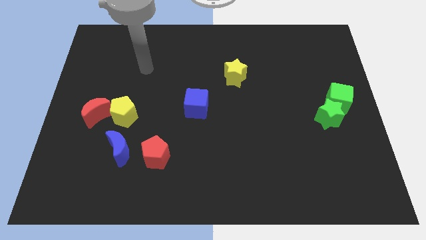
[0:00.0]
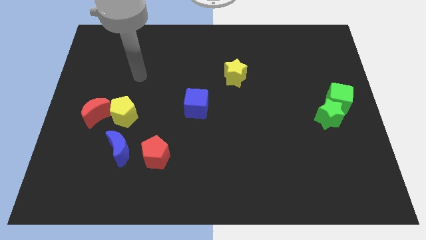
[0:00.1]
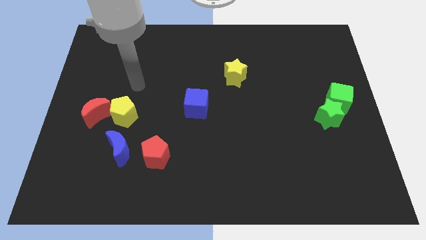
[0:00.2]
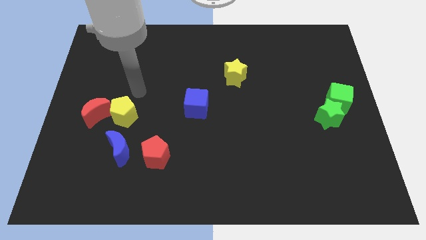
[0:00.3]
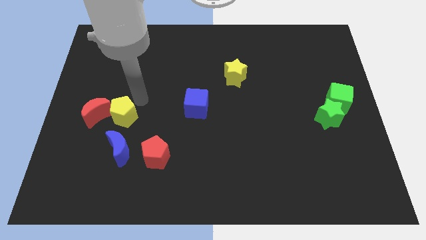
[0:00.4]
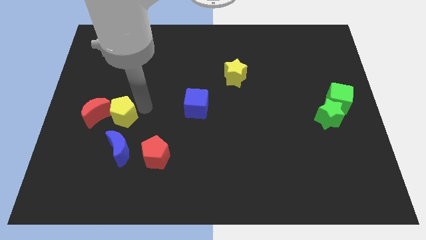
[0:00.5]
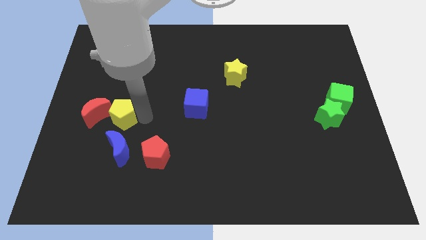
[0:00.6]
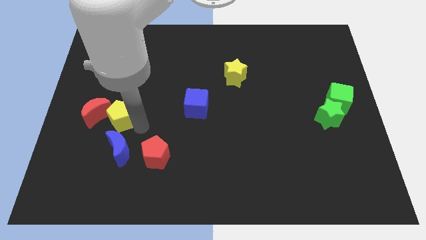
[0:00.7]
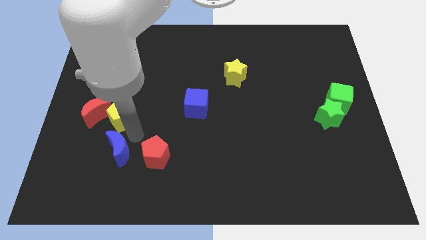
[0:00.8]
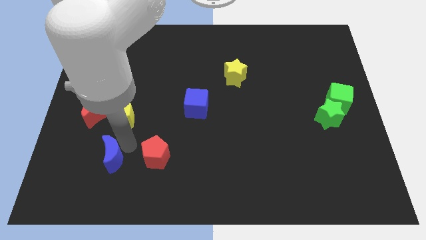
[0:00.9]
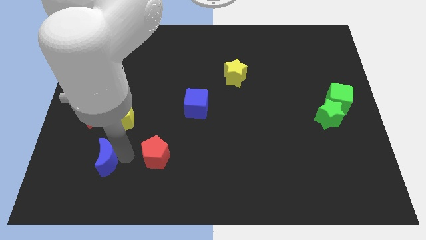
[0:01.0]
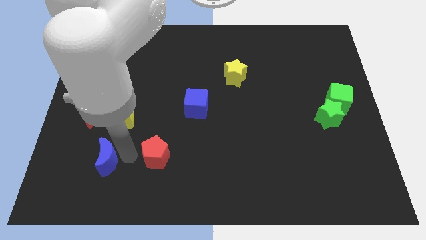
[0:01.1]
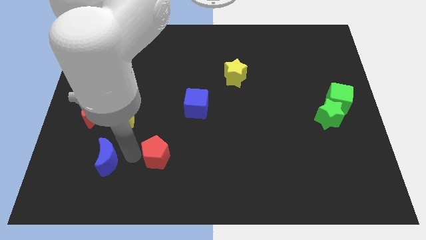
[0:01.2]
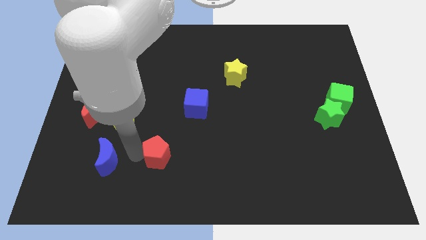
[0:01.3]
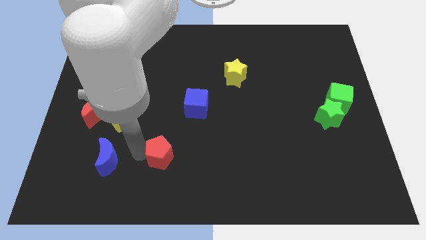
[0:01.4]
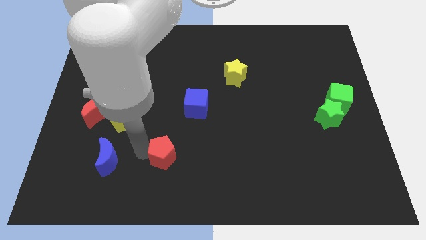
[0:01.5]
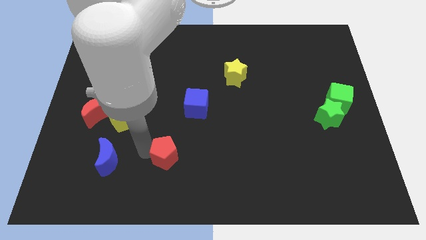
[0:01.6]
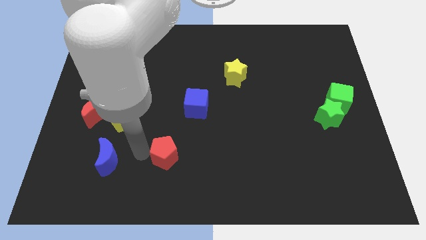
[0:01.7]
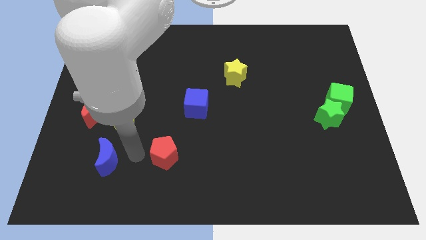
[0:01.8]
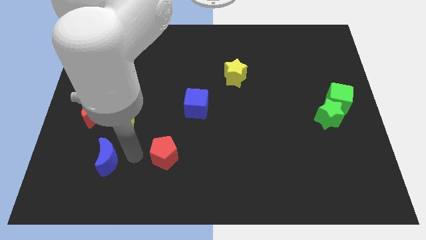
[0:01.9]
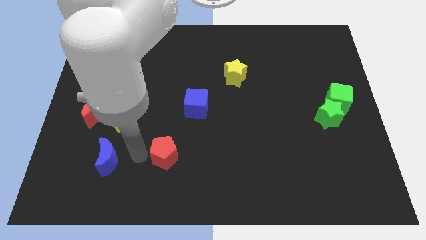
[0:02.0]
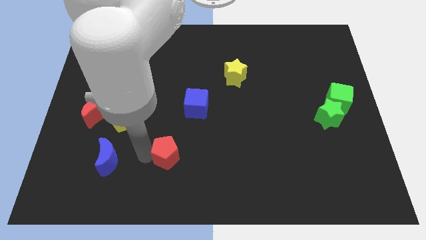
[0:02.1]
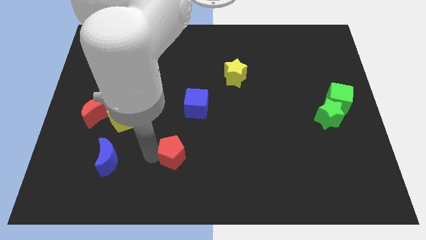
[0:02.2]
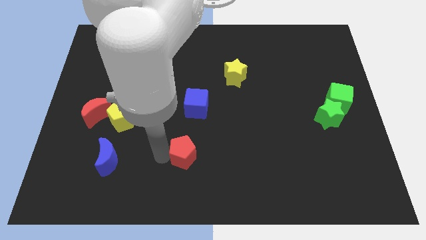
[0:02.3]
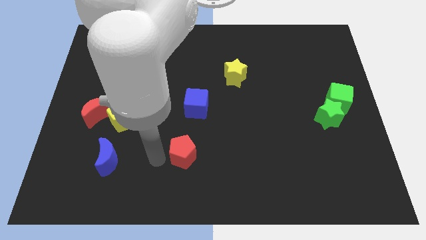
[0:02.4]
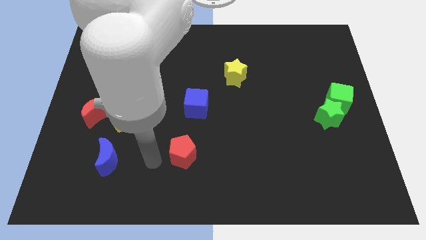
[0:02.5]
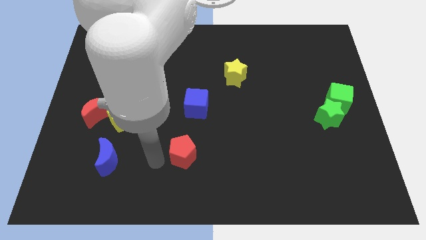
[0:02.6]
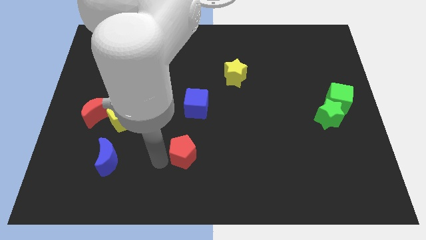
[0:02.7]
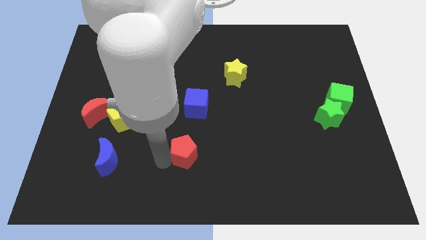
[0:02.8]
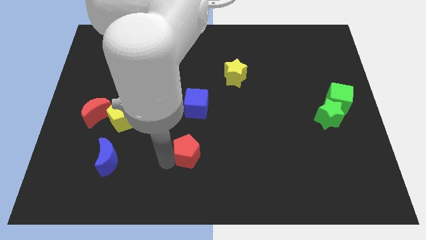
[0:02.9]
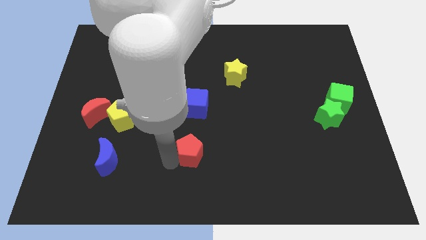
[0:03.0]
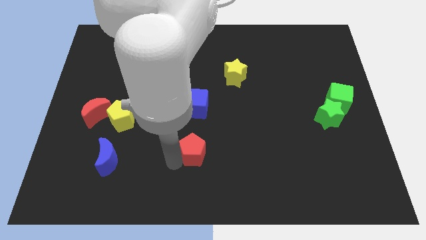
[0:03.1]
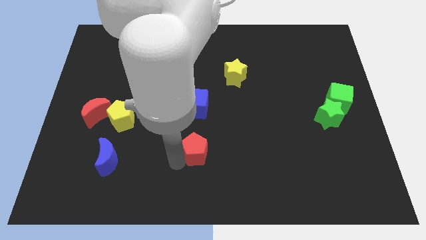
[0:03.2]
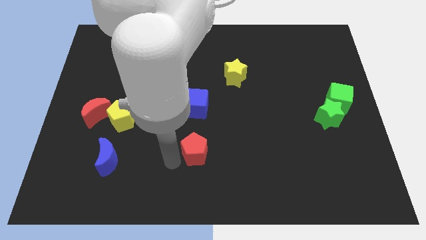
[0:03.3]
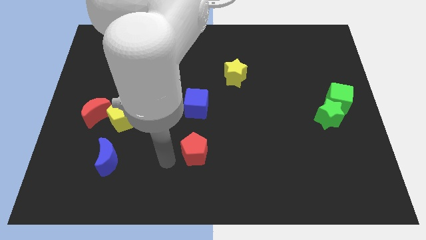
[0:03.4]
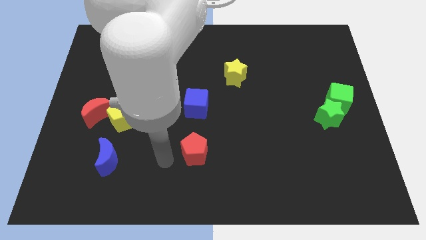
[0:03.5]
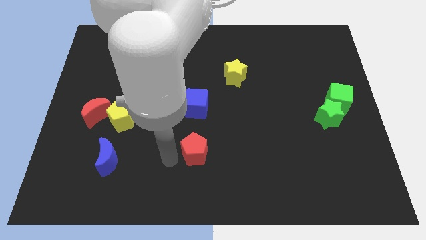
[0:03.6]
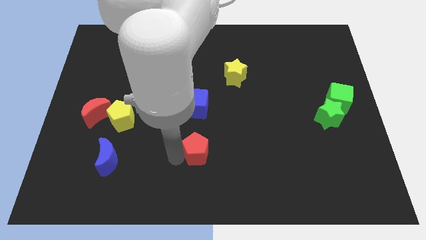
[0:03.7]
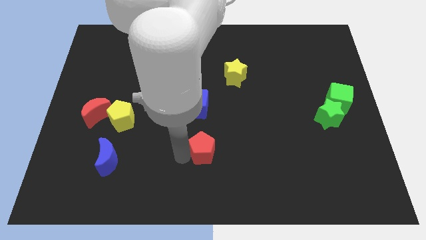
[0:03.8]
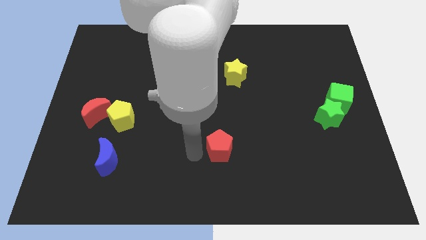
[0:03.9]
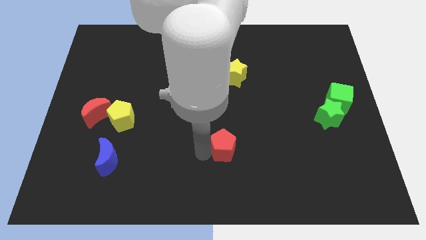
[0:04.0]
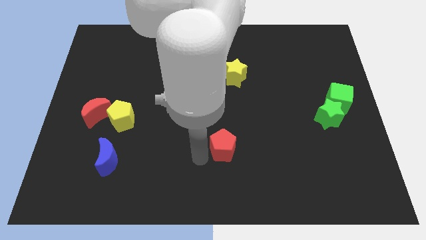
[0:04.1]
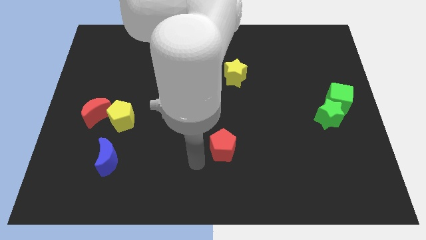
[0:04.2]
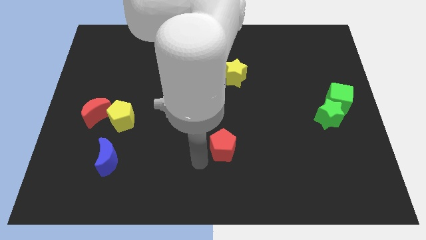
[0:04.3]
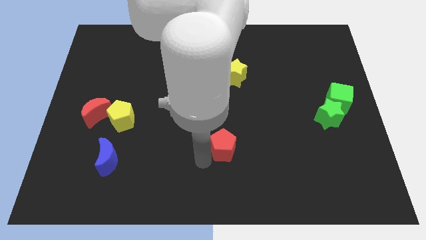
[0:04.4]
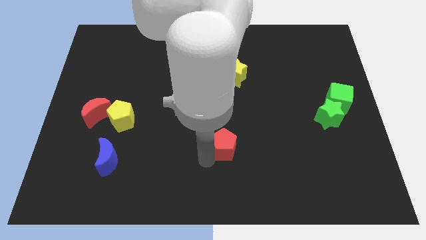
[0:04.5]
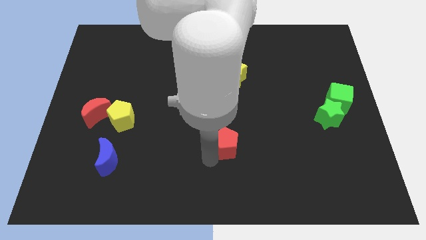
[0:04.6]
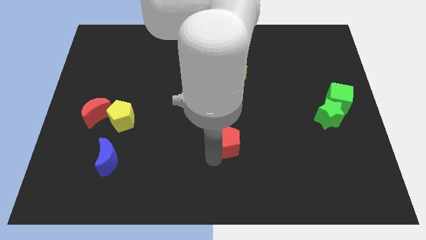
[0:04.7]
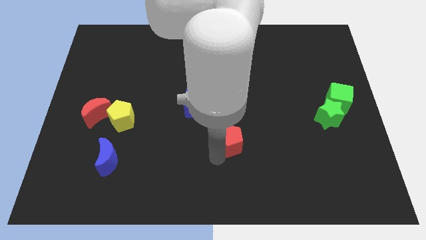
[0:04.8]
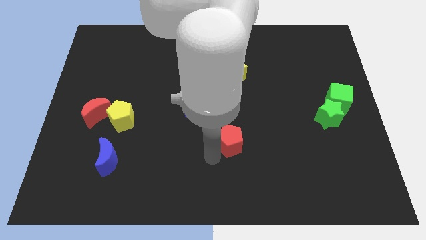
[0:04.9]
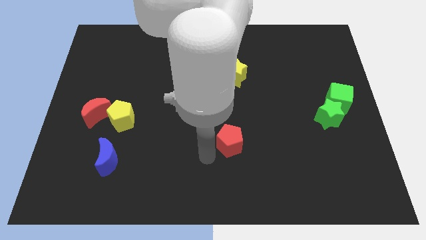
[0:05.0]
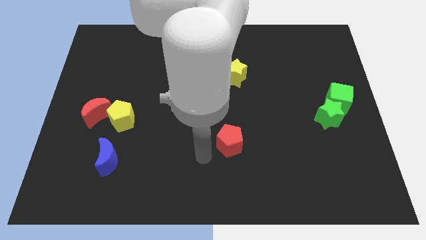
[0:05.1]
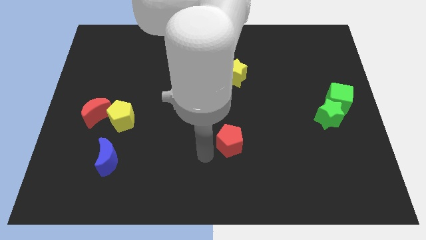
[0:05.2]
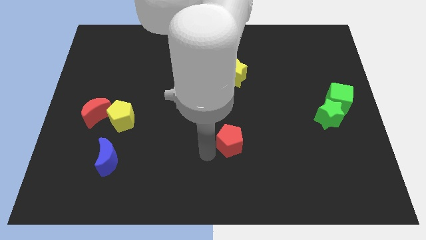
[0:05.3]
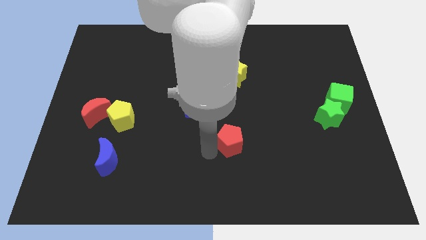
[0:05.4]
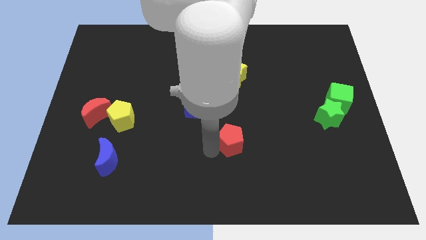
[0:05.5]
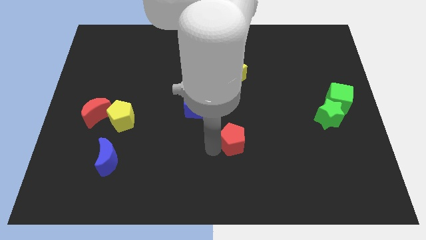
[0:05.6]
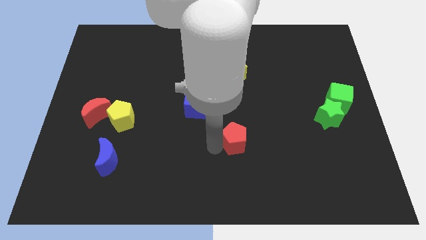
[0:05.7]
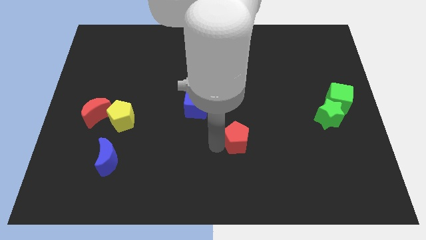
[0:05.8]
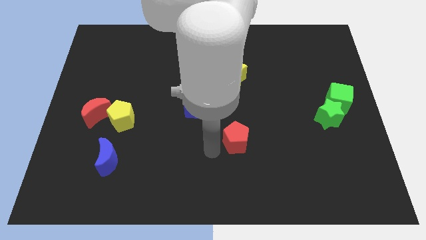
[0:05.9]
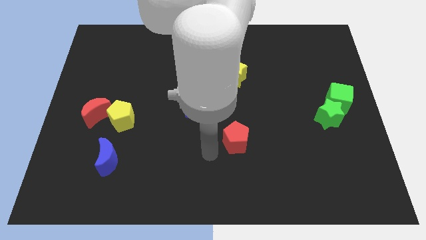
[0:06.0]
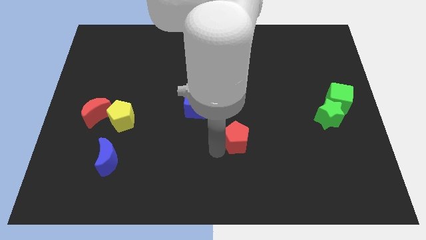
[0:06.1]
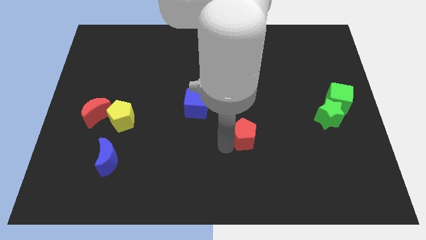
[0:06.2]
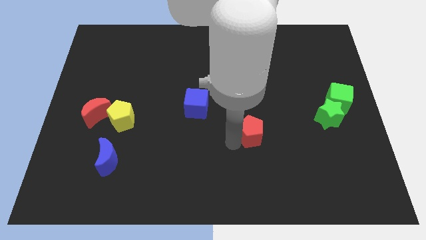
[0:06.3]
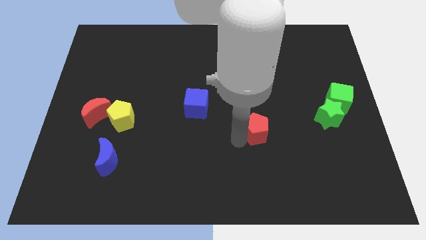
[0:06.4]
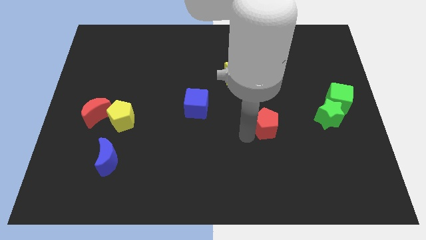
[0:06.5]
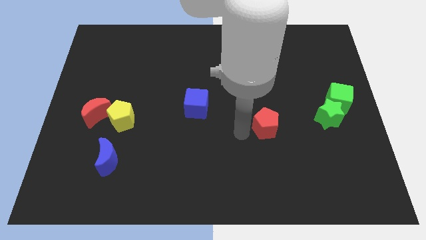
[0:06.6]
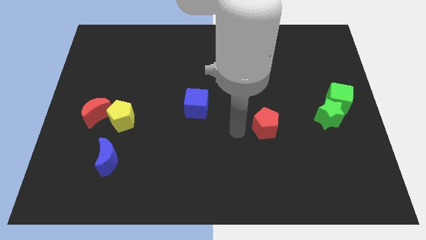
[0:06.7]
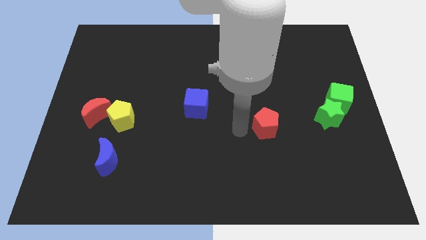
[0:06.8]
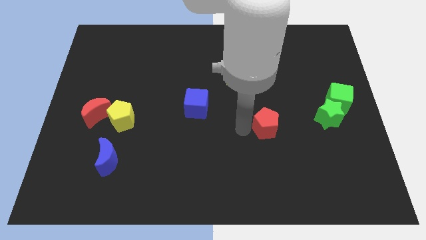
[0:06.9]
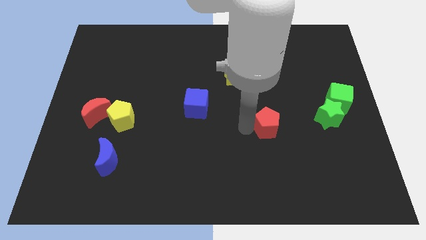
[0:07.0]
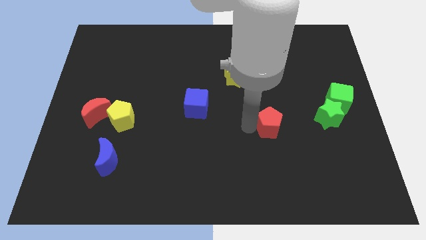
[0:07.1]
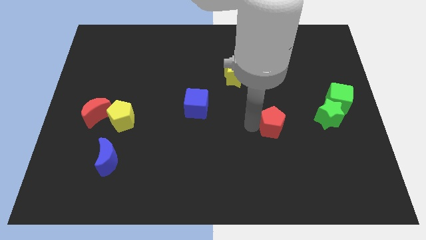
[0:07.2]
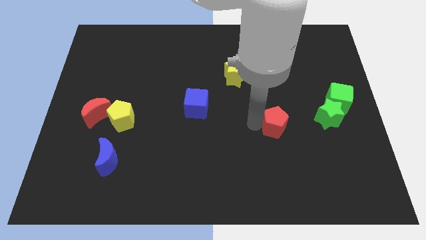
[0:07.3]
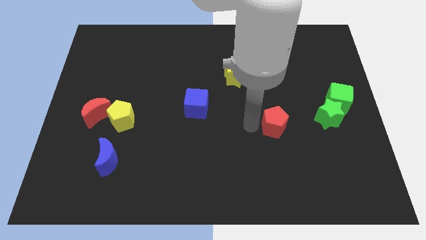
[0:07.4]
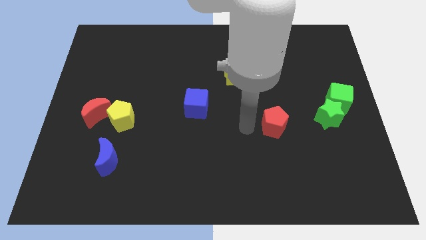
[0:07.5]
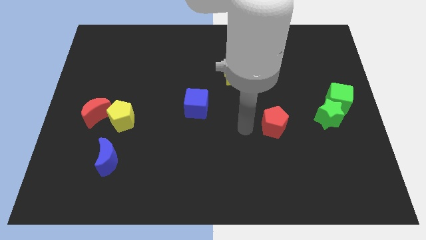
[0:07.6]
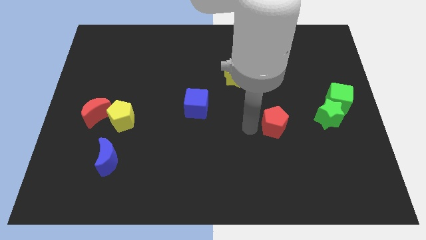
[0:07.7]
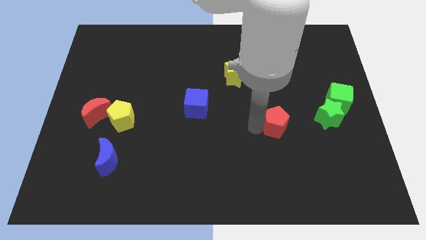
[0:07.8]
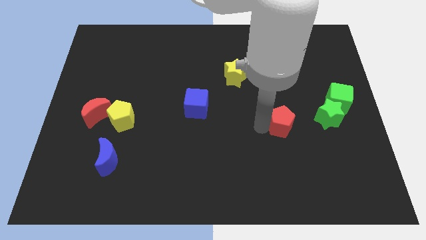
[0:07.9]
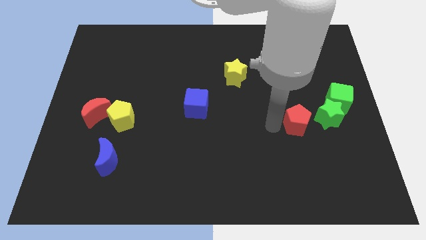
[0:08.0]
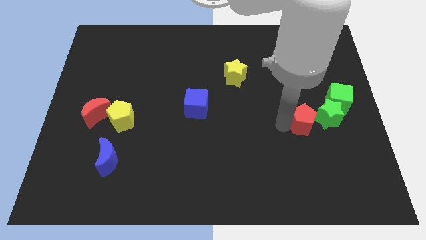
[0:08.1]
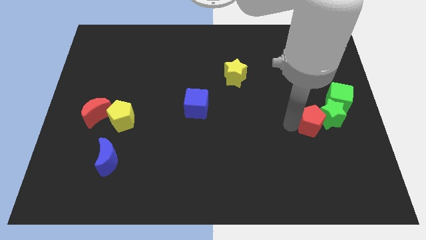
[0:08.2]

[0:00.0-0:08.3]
slide the red pentagon towards the green star

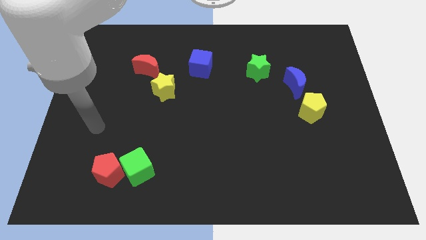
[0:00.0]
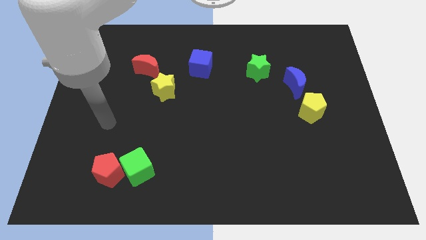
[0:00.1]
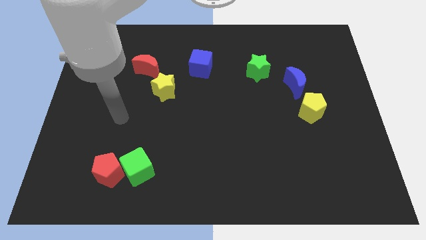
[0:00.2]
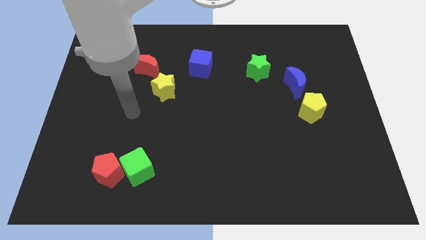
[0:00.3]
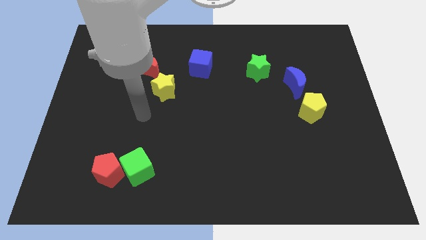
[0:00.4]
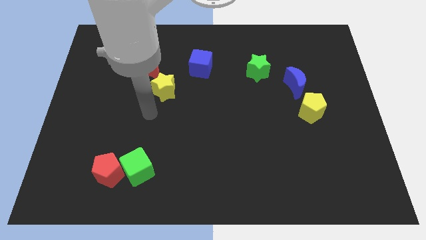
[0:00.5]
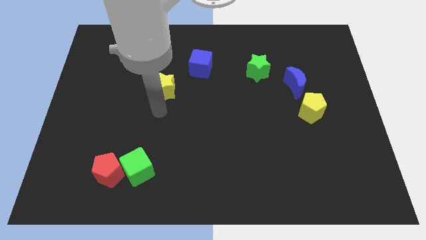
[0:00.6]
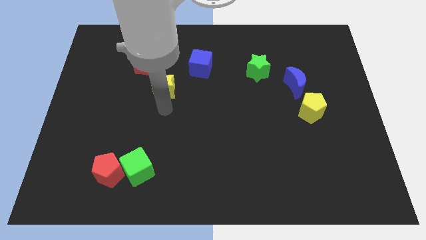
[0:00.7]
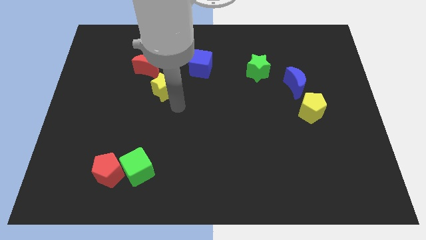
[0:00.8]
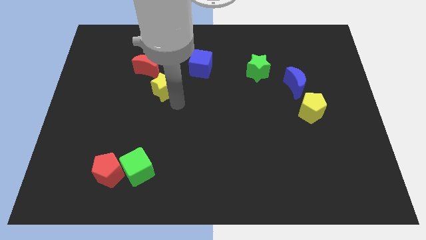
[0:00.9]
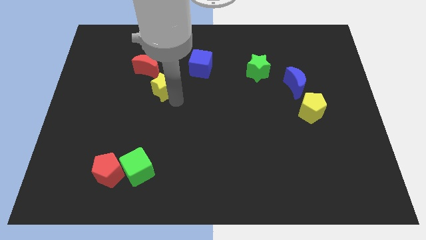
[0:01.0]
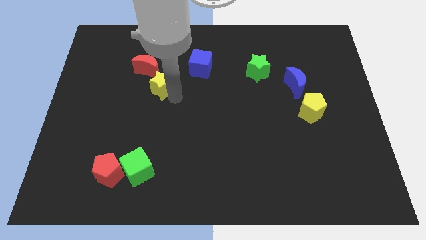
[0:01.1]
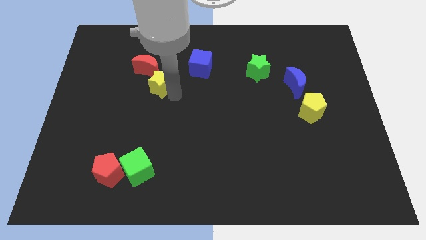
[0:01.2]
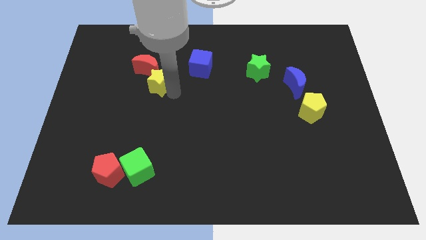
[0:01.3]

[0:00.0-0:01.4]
push the yellow star to the red moon
